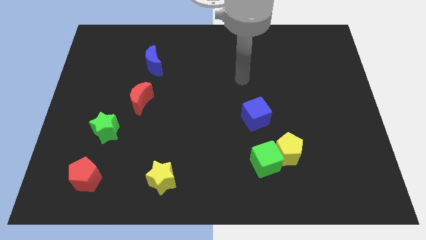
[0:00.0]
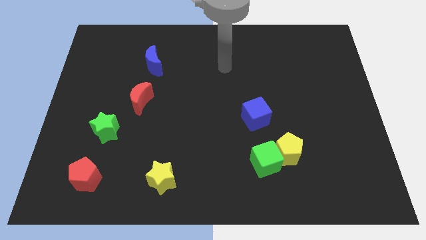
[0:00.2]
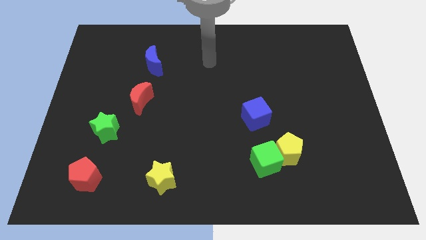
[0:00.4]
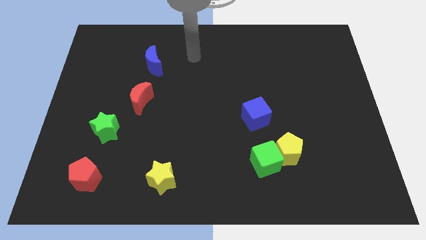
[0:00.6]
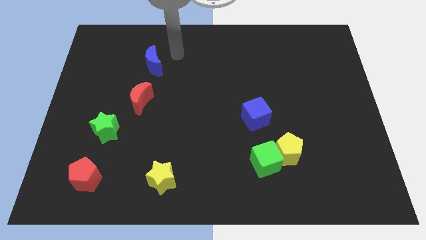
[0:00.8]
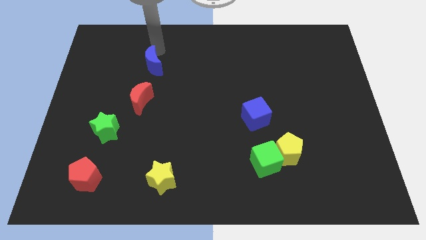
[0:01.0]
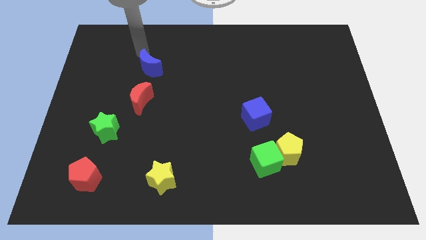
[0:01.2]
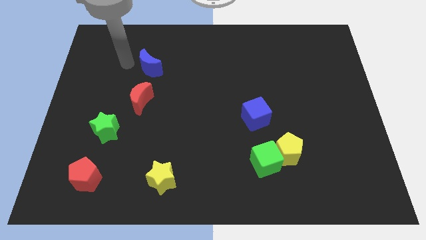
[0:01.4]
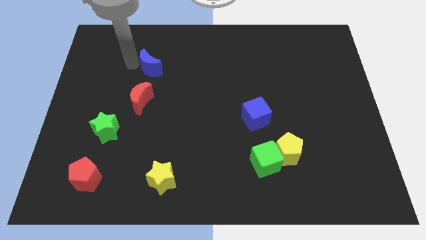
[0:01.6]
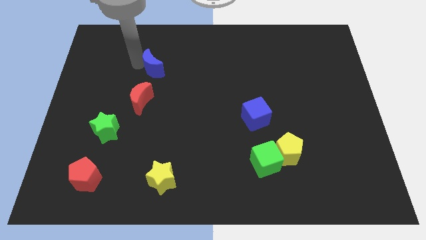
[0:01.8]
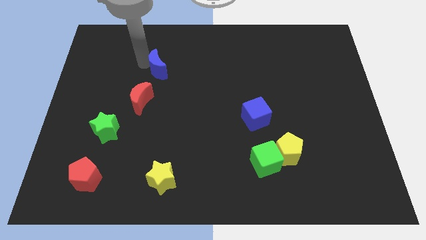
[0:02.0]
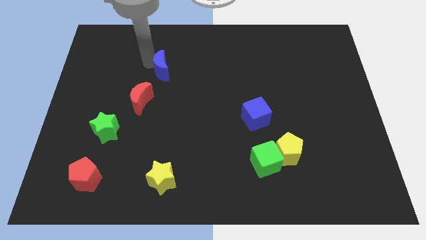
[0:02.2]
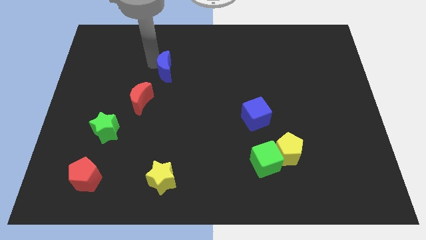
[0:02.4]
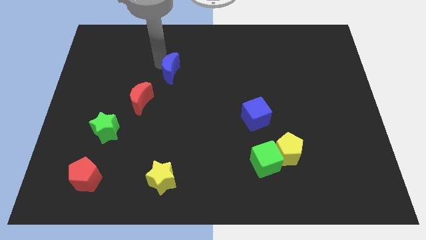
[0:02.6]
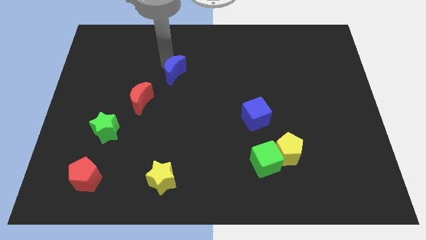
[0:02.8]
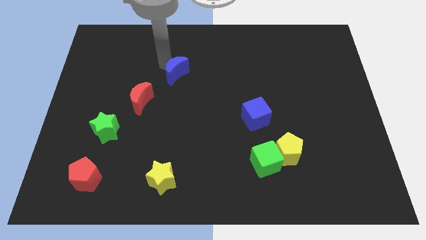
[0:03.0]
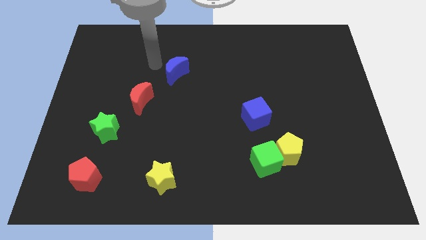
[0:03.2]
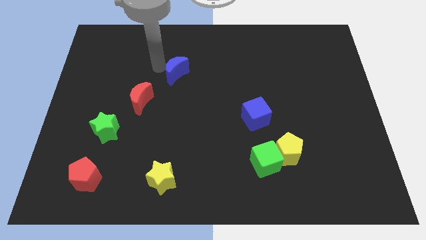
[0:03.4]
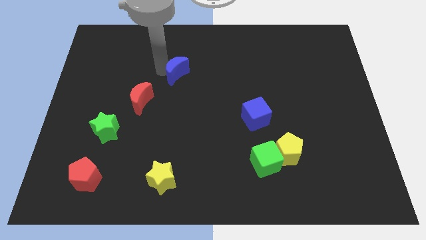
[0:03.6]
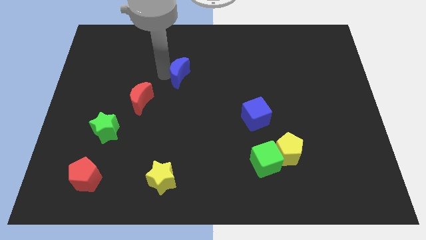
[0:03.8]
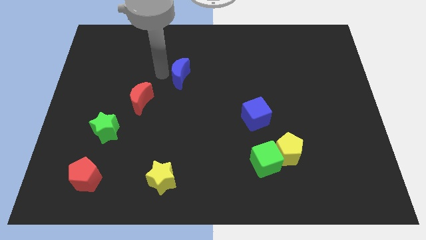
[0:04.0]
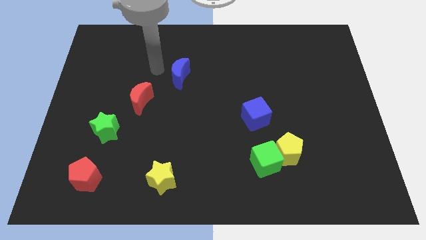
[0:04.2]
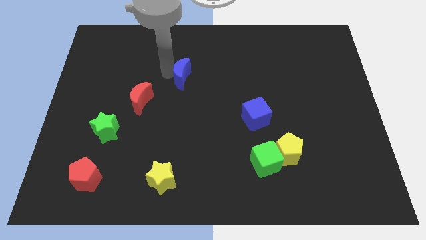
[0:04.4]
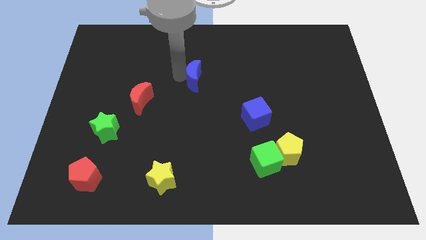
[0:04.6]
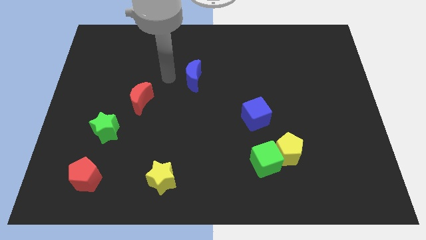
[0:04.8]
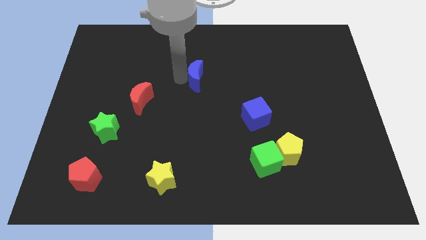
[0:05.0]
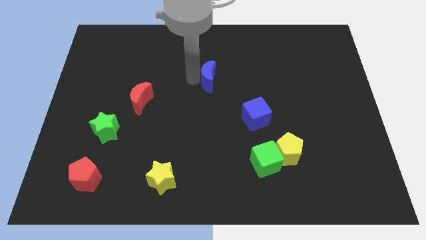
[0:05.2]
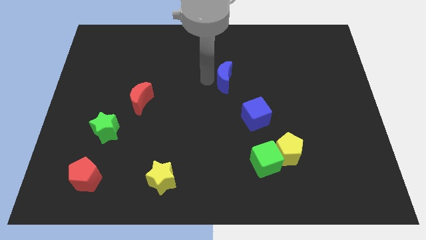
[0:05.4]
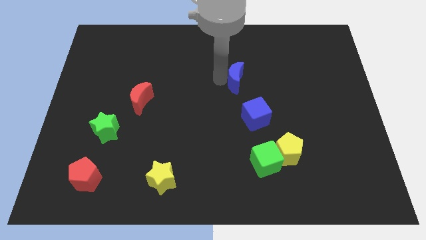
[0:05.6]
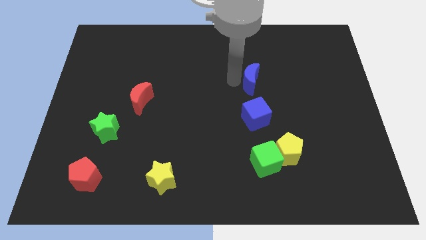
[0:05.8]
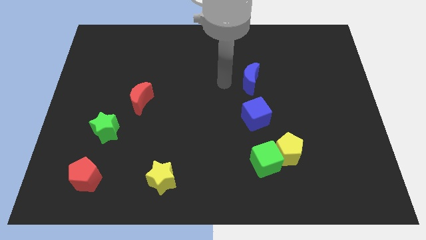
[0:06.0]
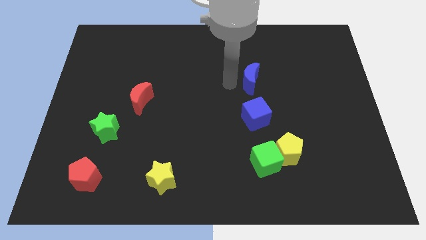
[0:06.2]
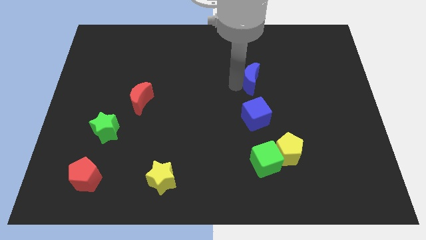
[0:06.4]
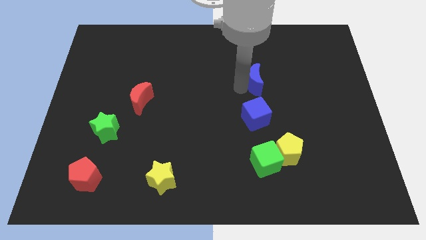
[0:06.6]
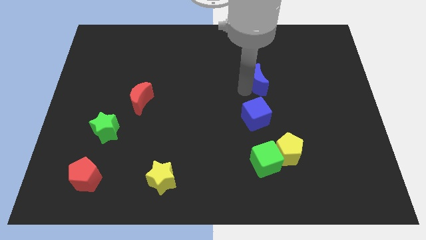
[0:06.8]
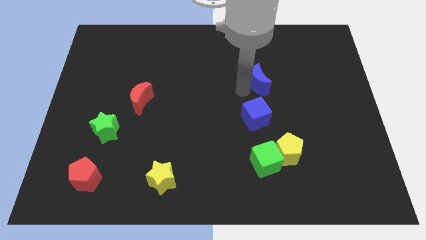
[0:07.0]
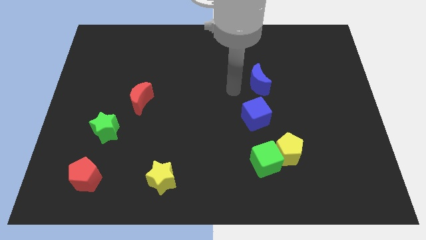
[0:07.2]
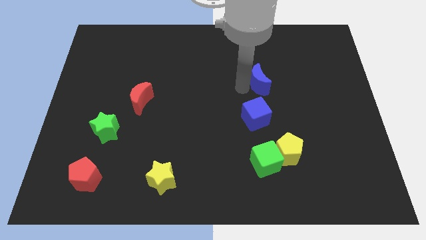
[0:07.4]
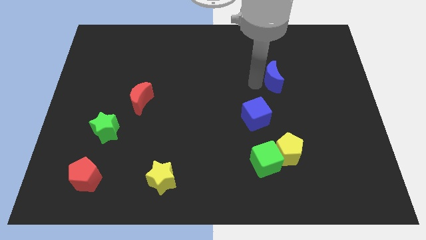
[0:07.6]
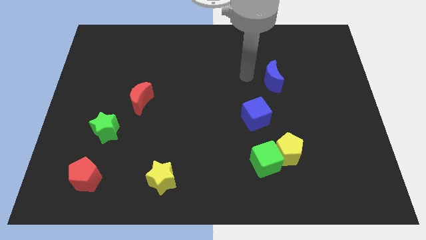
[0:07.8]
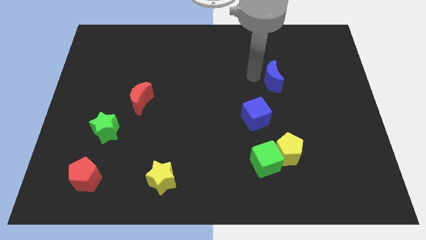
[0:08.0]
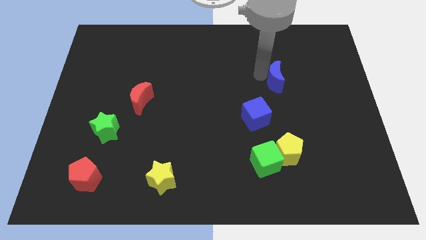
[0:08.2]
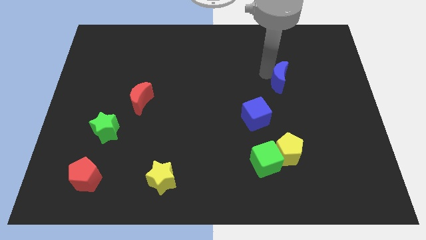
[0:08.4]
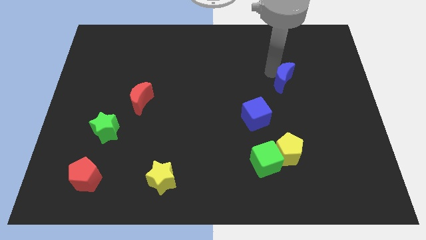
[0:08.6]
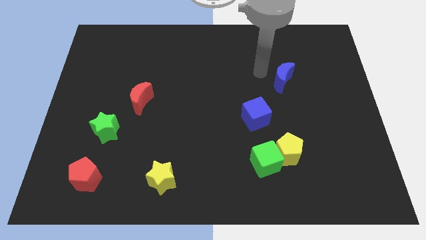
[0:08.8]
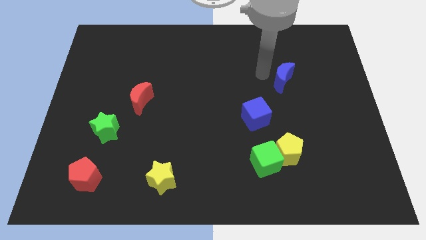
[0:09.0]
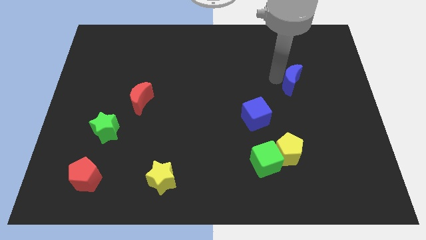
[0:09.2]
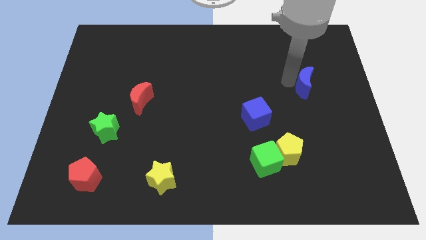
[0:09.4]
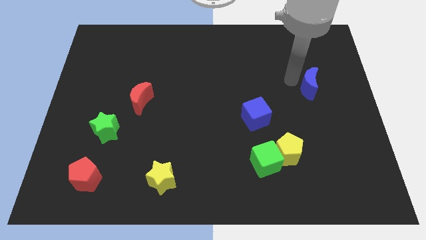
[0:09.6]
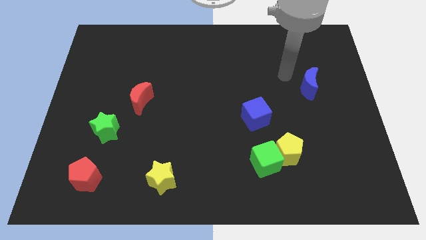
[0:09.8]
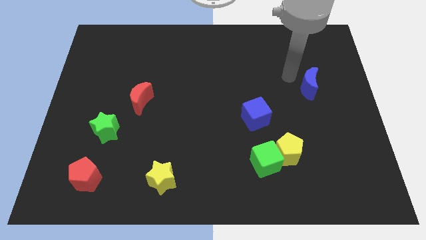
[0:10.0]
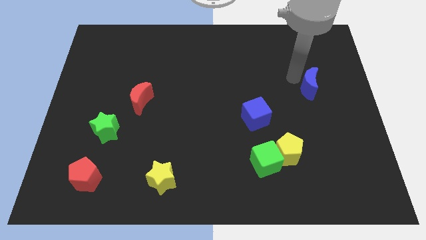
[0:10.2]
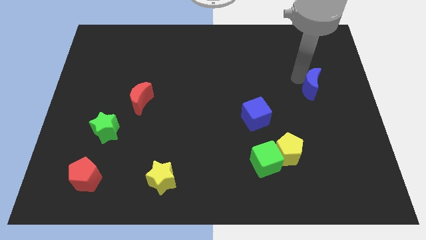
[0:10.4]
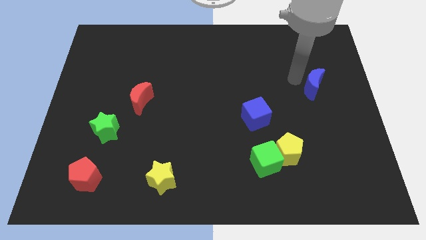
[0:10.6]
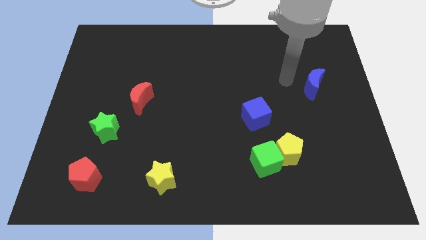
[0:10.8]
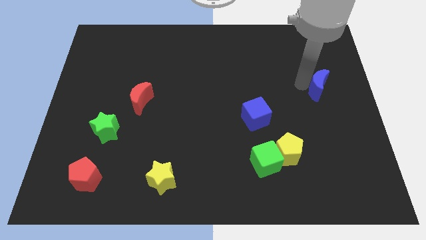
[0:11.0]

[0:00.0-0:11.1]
put the blue moon to the right side

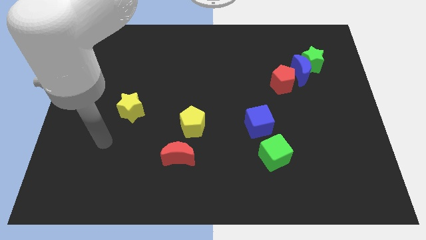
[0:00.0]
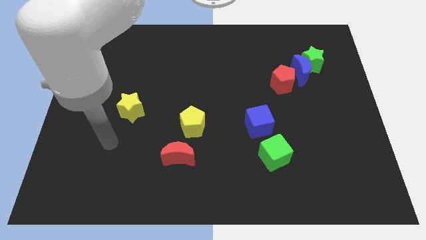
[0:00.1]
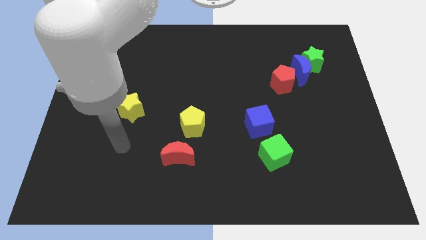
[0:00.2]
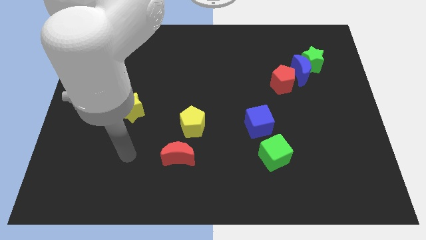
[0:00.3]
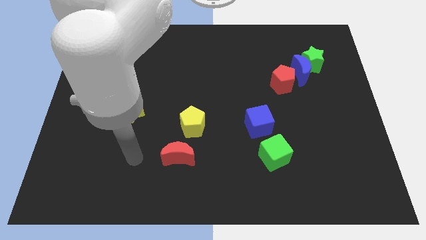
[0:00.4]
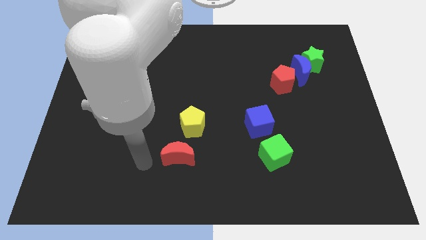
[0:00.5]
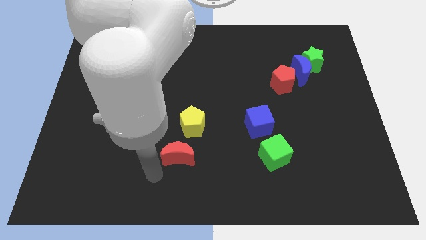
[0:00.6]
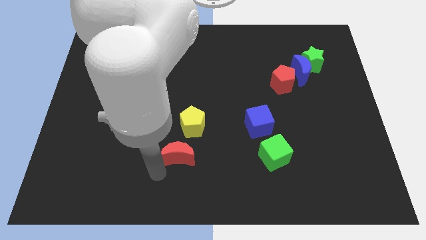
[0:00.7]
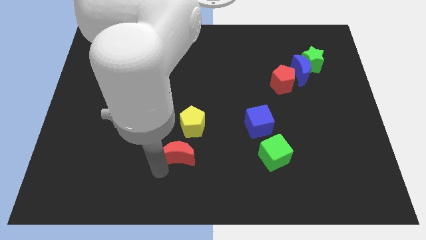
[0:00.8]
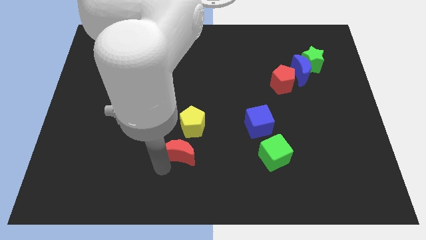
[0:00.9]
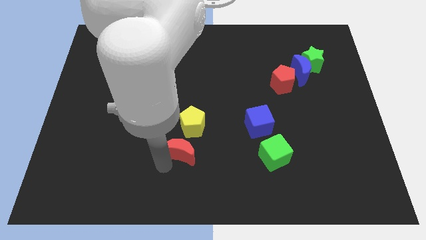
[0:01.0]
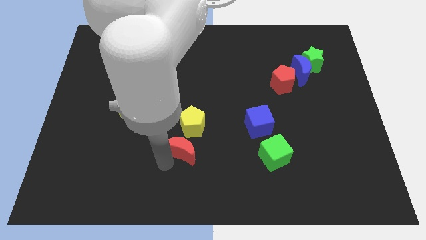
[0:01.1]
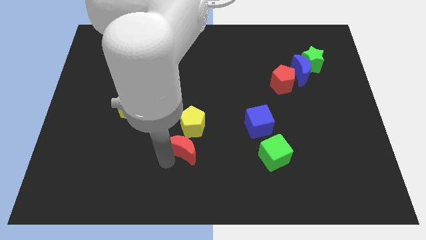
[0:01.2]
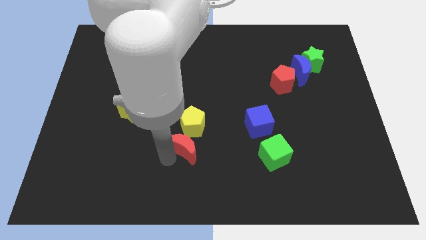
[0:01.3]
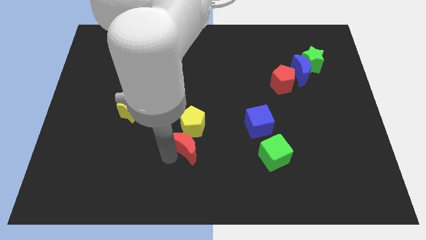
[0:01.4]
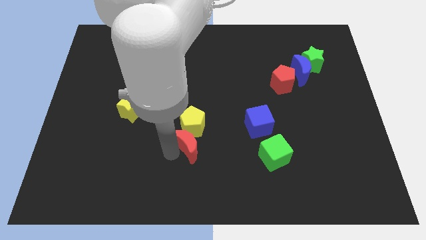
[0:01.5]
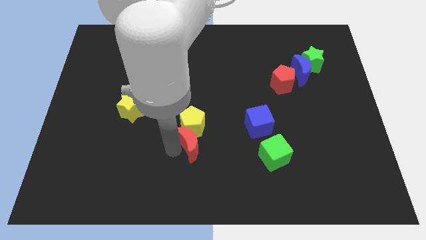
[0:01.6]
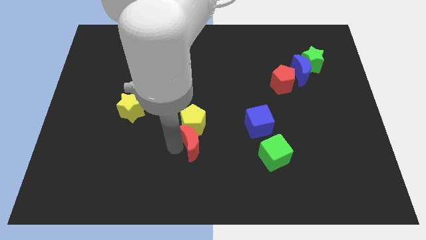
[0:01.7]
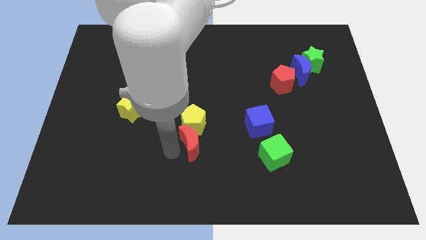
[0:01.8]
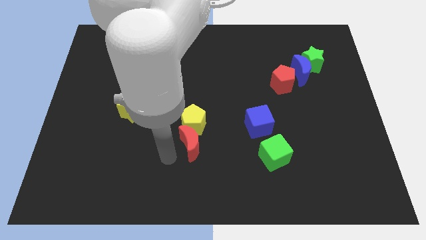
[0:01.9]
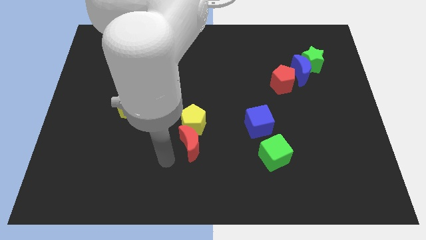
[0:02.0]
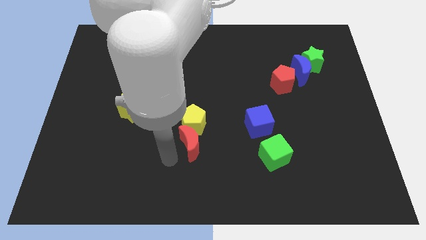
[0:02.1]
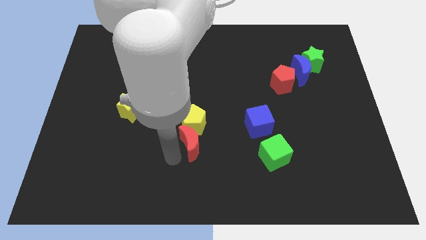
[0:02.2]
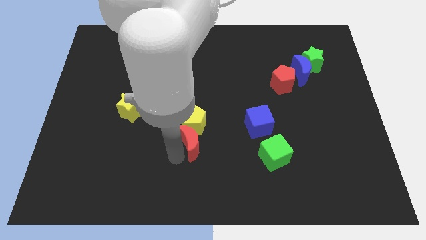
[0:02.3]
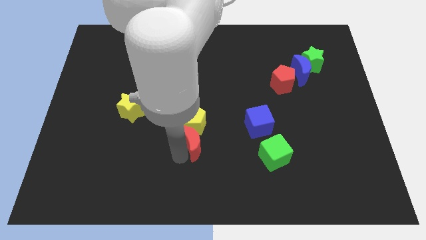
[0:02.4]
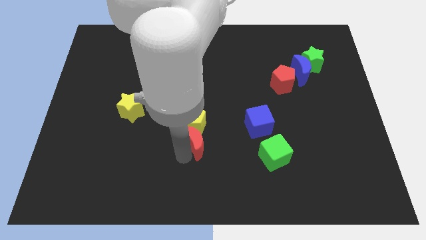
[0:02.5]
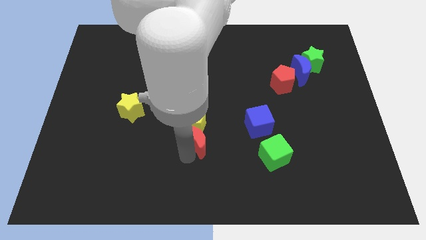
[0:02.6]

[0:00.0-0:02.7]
put the red moon to the center of the board
